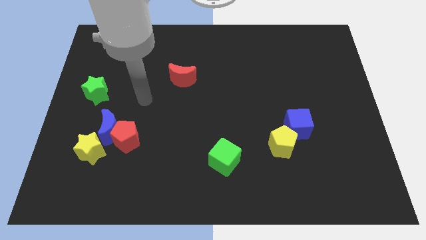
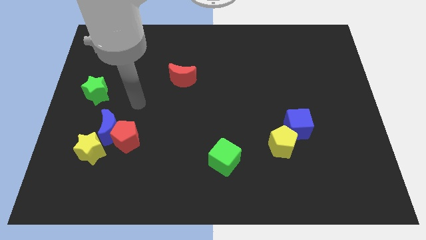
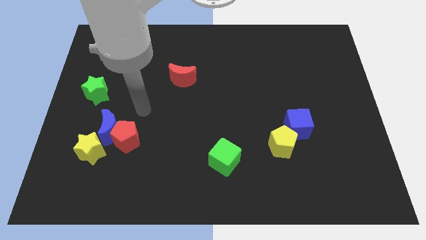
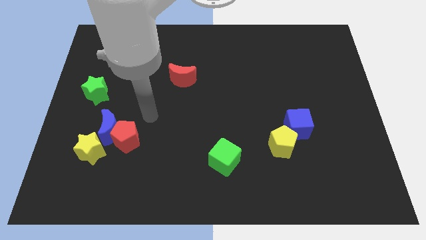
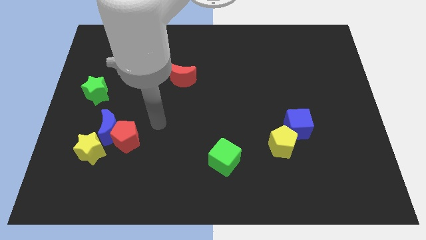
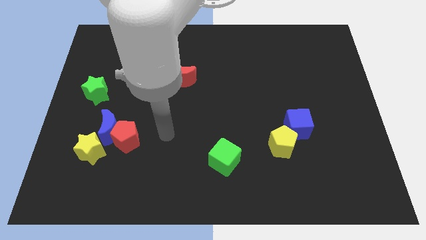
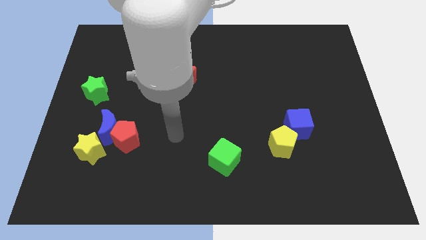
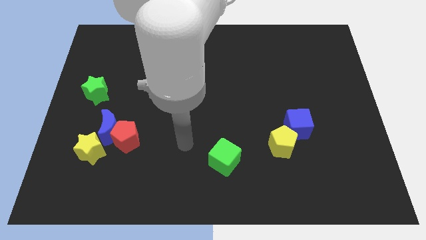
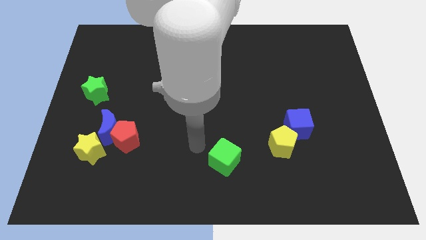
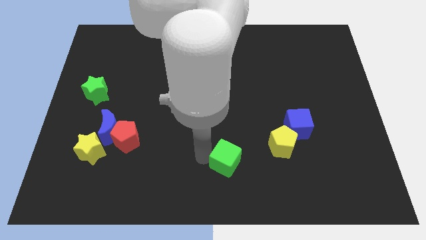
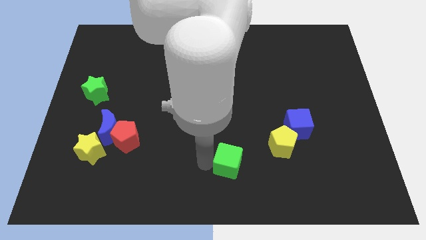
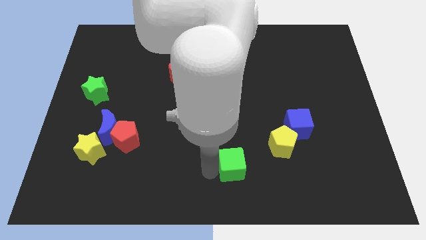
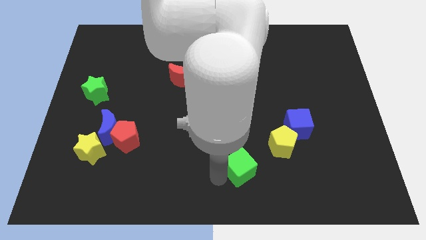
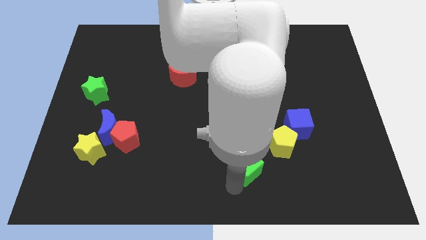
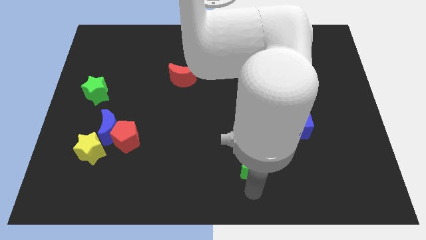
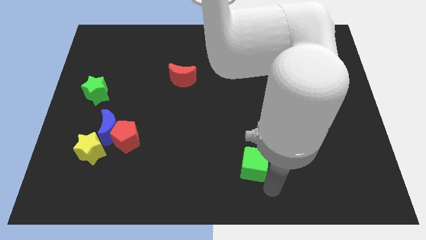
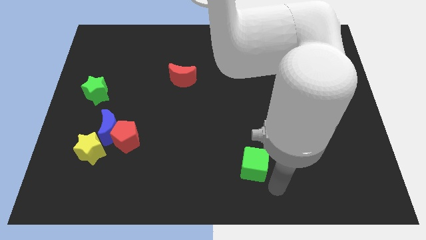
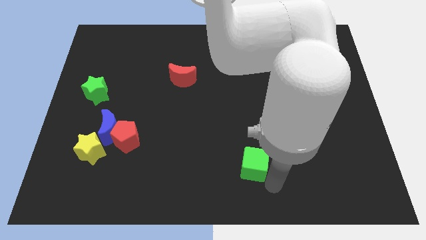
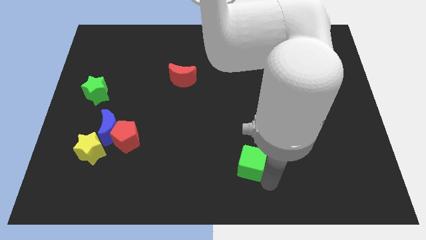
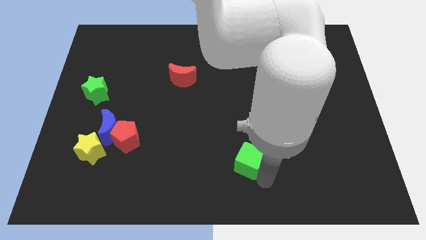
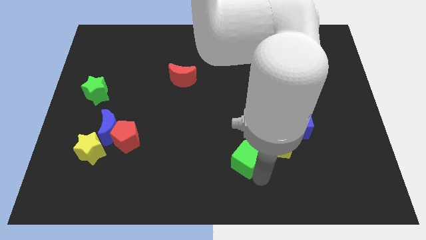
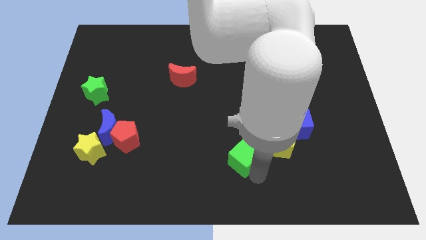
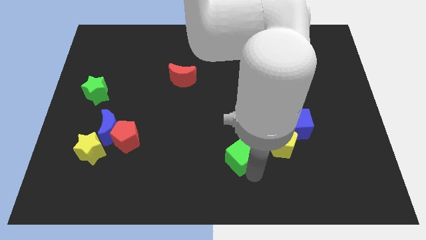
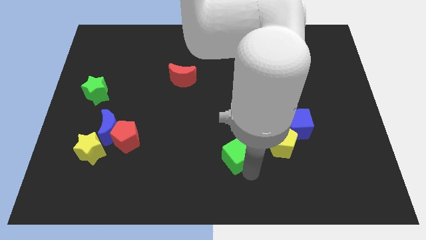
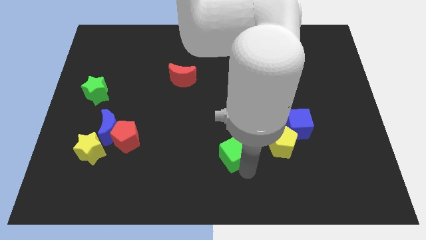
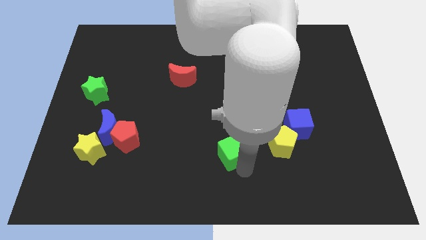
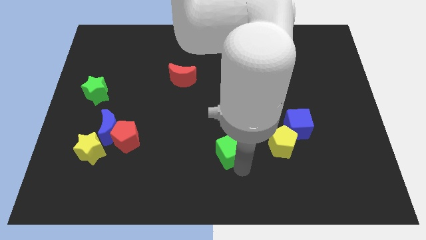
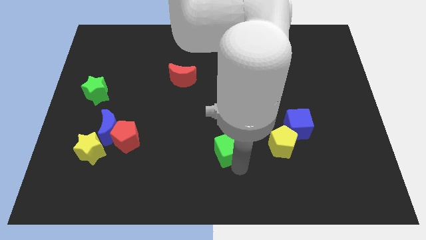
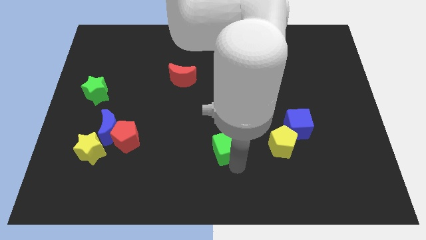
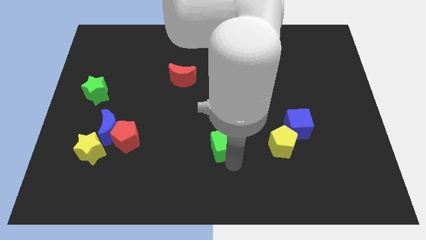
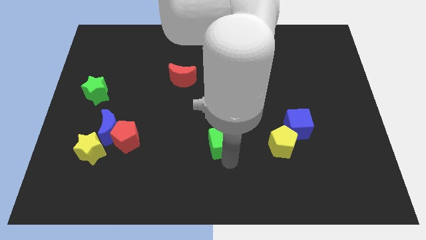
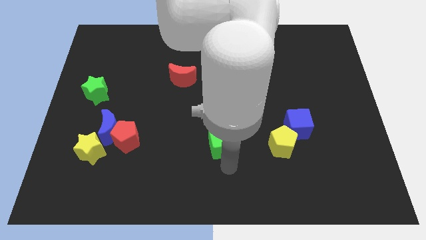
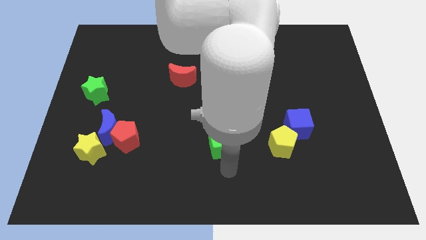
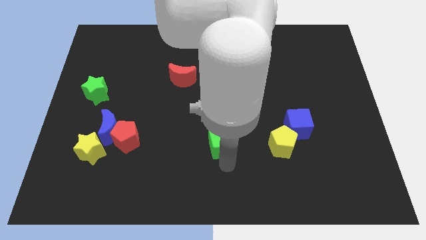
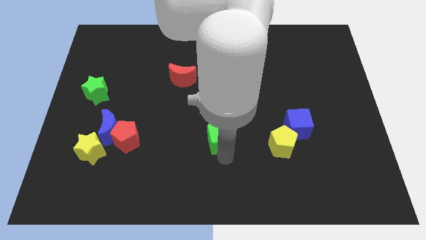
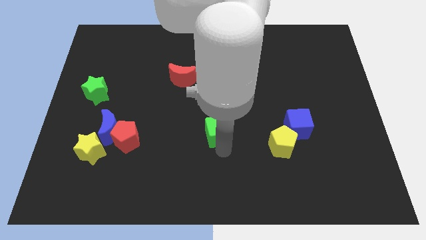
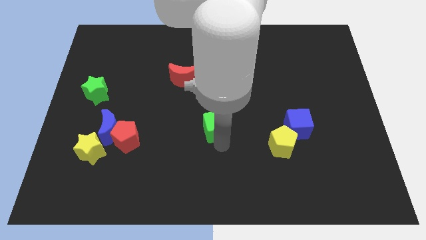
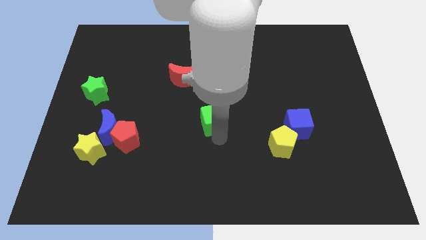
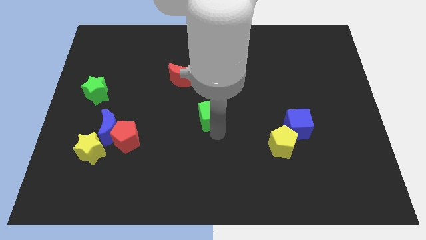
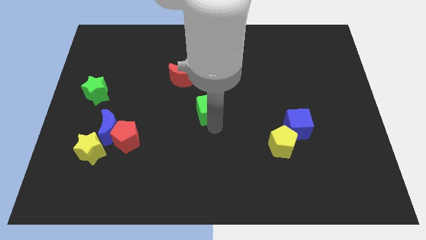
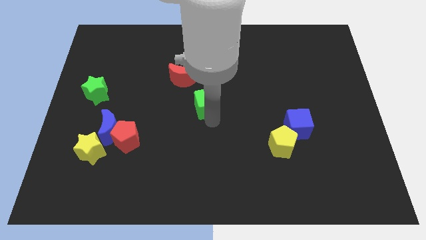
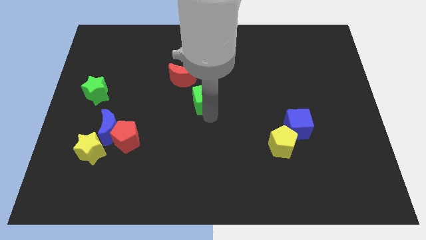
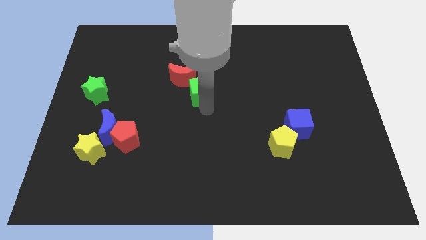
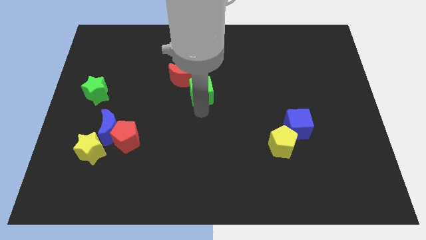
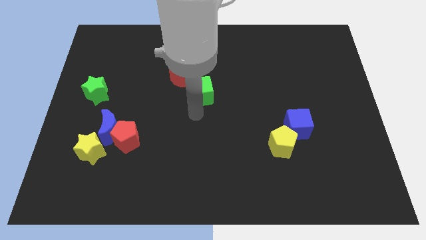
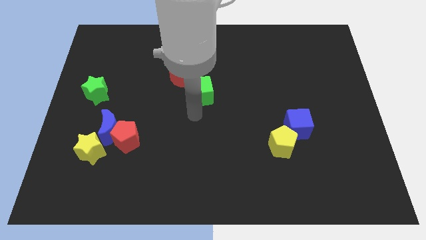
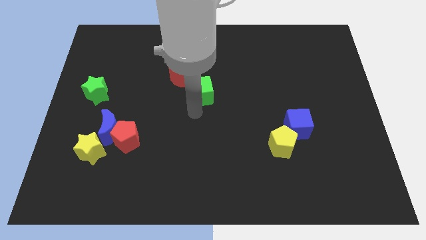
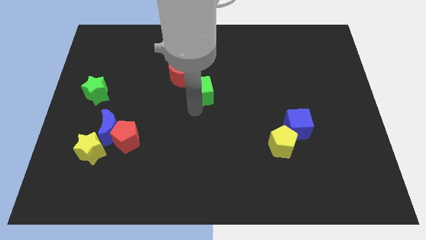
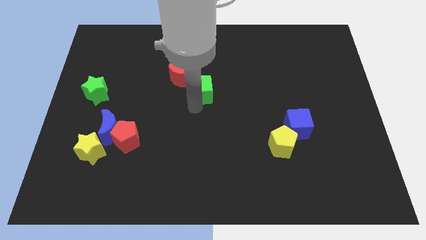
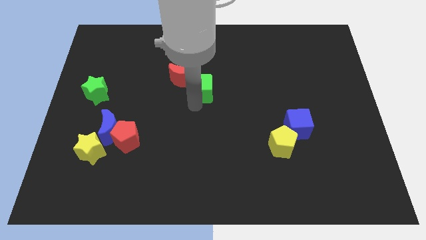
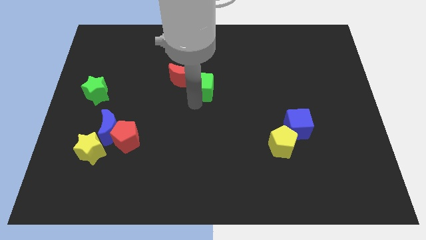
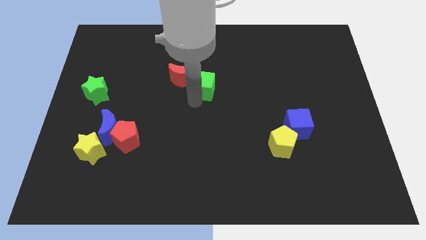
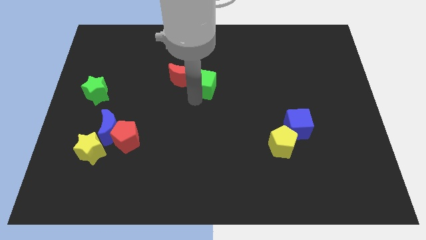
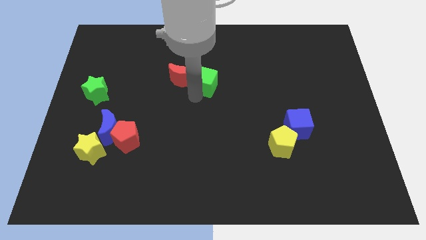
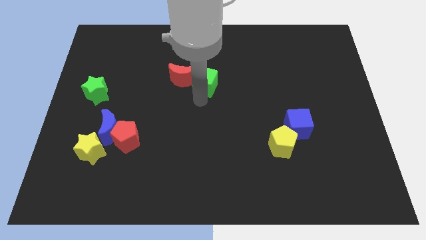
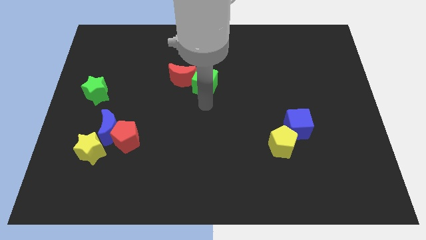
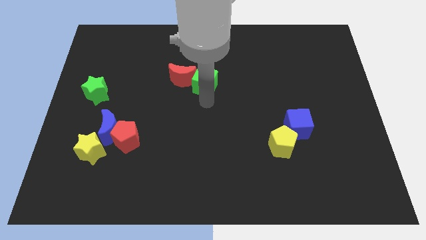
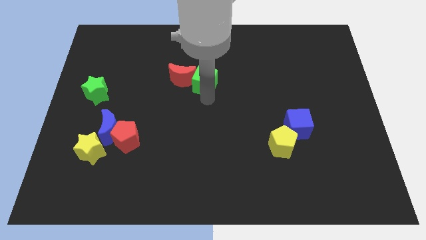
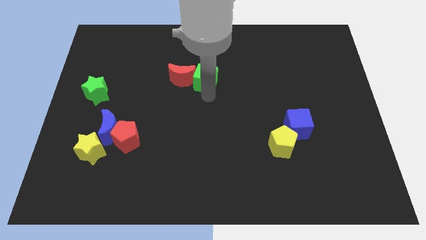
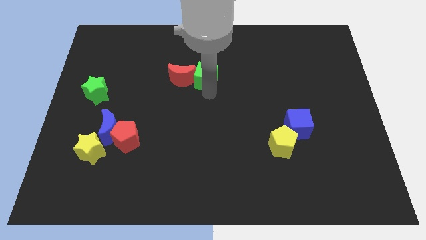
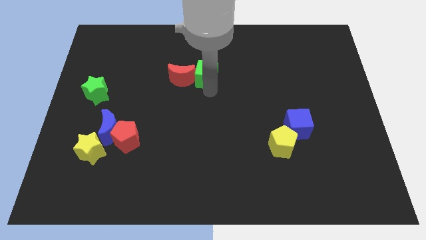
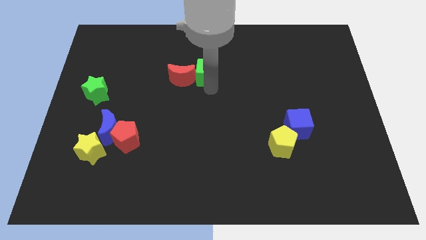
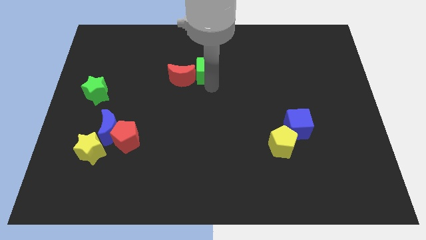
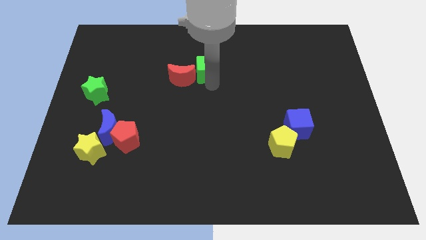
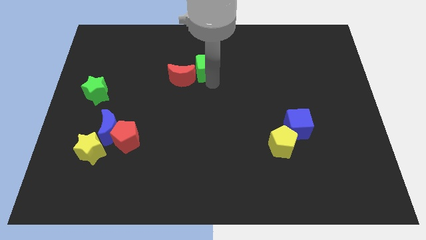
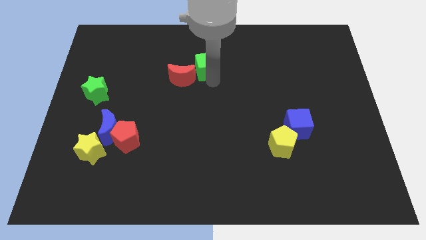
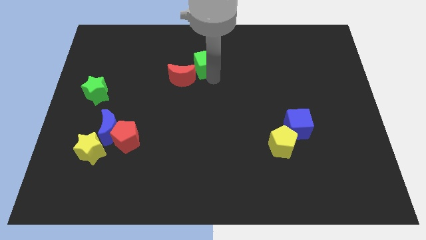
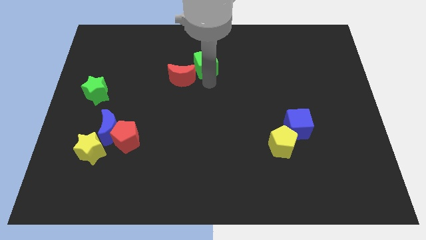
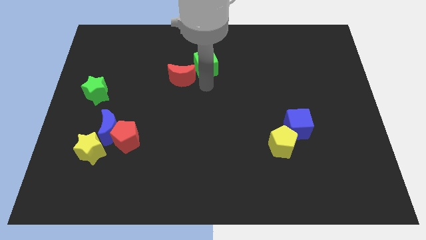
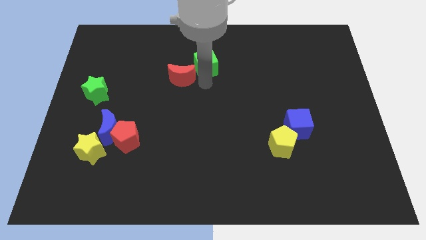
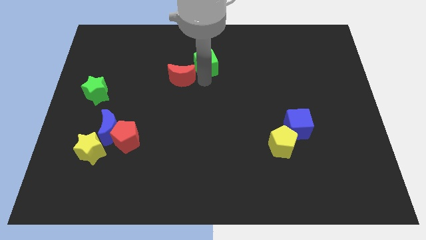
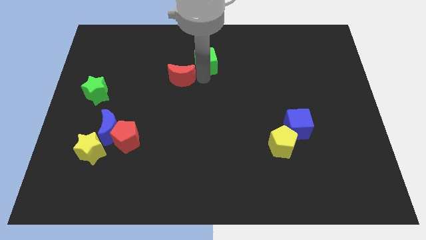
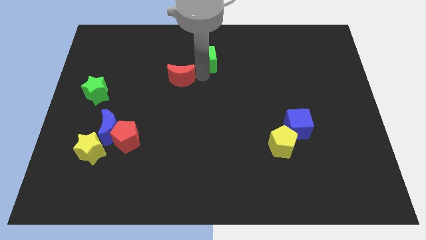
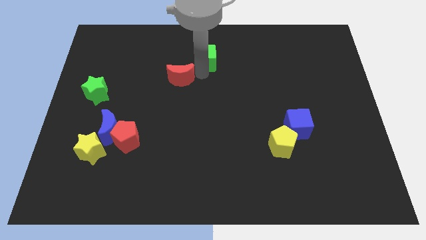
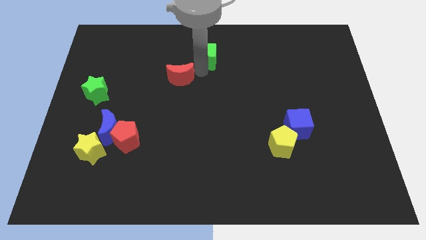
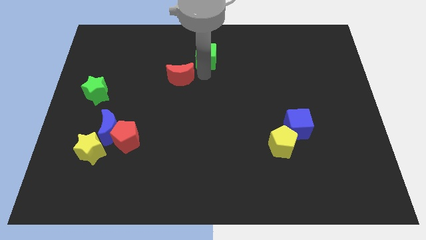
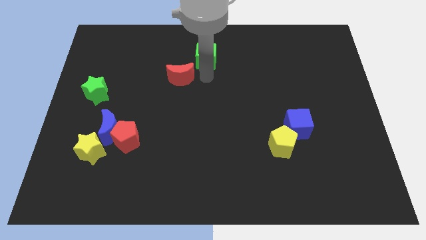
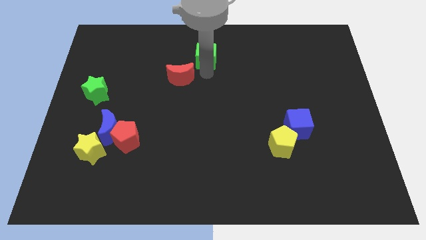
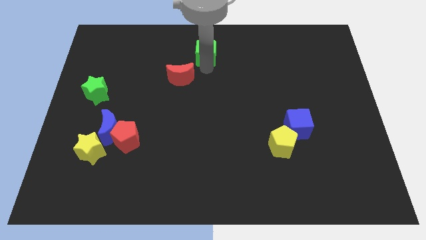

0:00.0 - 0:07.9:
move the green cube to the top side
